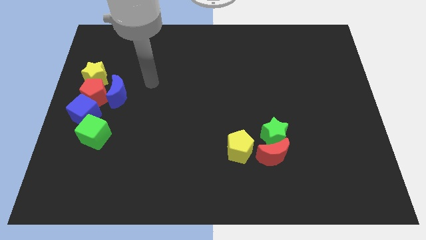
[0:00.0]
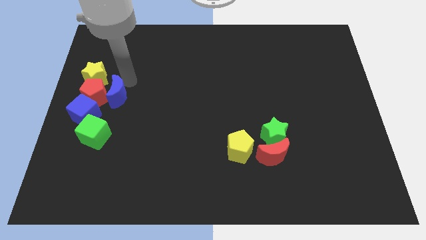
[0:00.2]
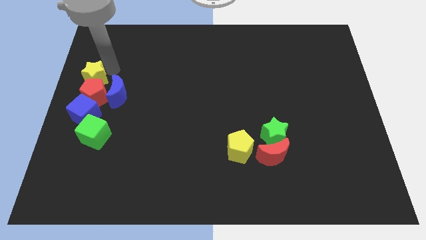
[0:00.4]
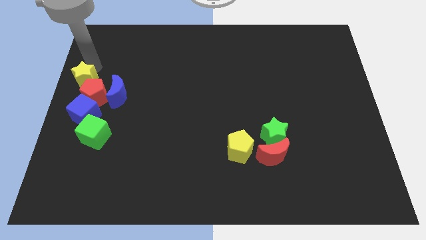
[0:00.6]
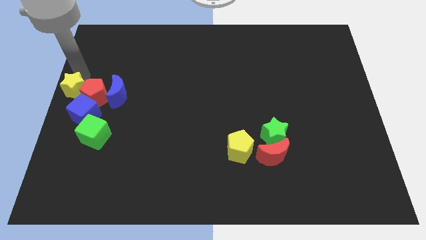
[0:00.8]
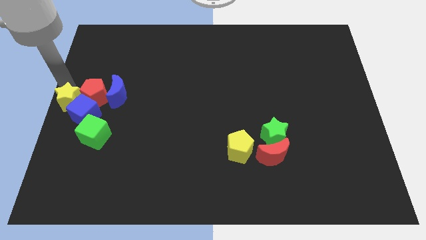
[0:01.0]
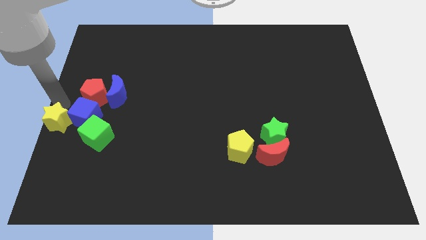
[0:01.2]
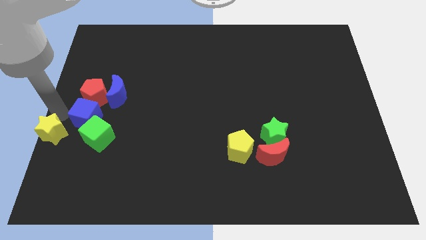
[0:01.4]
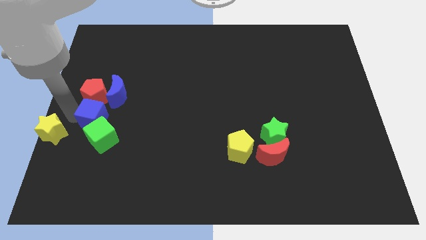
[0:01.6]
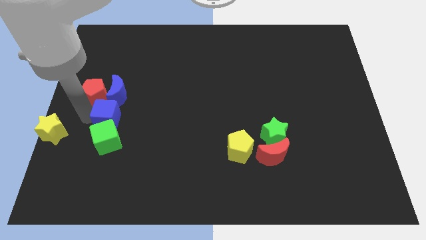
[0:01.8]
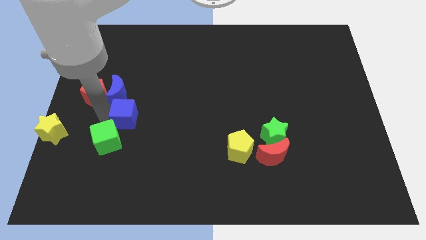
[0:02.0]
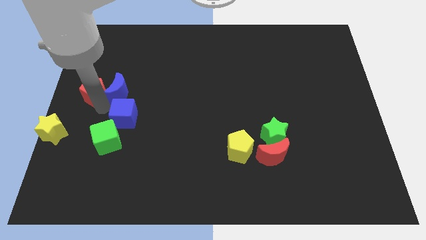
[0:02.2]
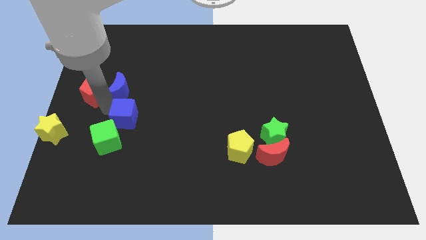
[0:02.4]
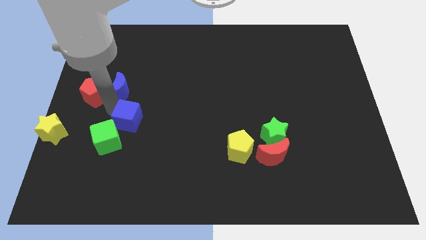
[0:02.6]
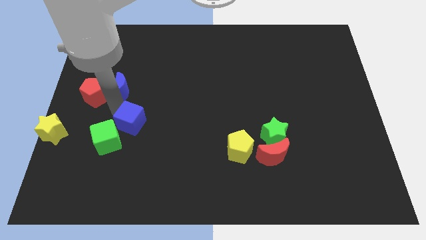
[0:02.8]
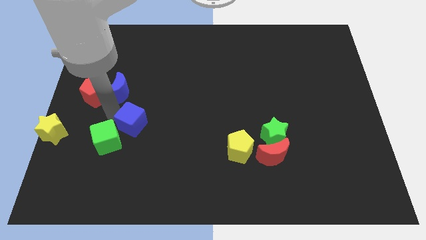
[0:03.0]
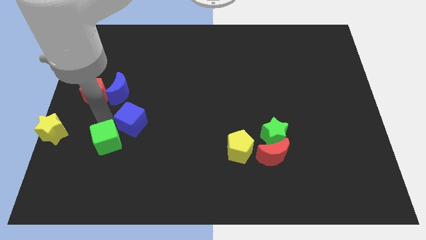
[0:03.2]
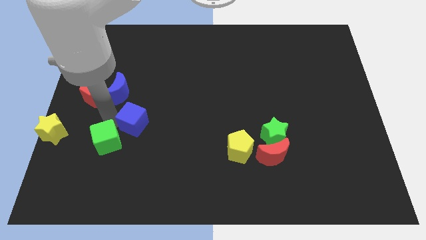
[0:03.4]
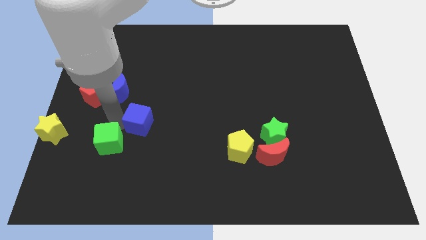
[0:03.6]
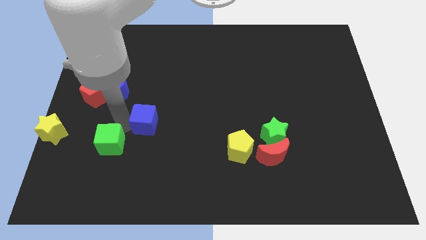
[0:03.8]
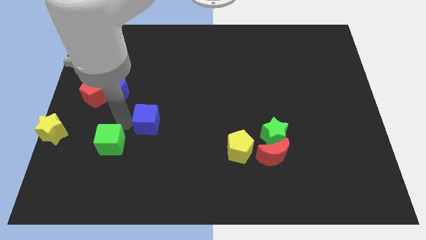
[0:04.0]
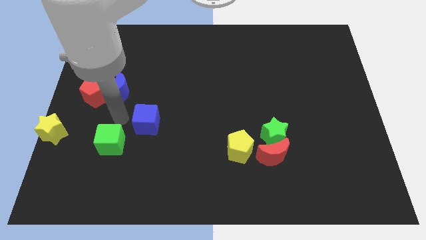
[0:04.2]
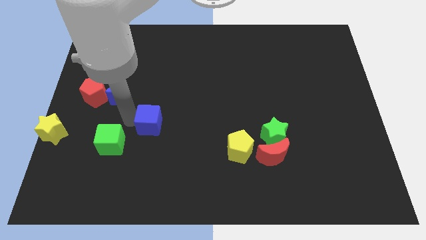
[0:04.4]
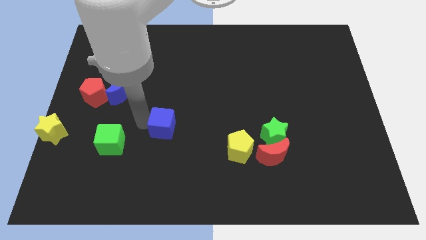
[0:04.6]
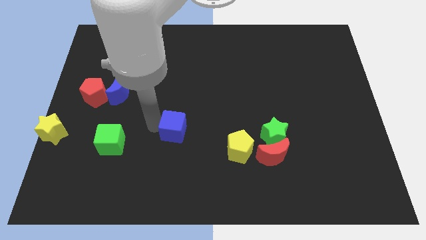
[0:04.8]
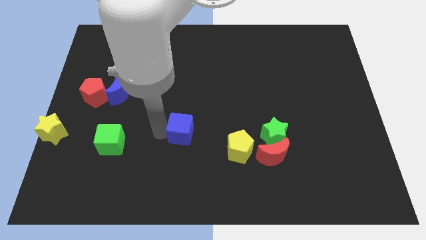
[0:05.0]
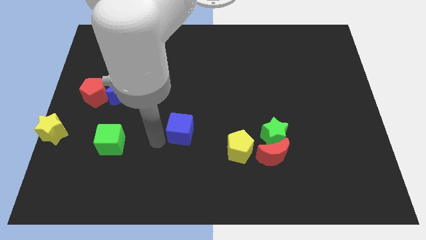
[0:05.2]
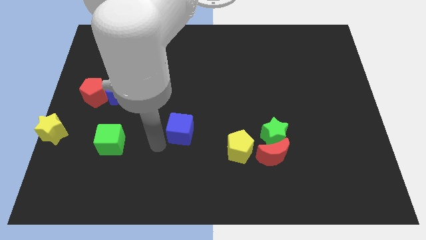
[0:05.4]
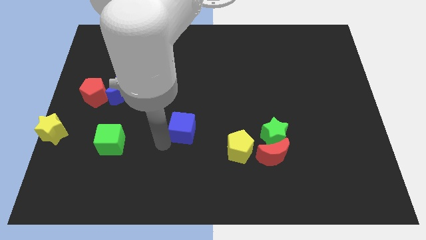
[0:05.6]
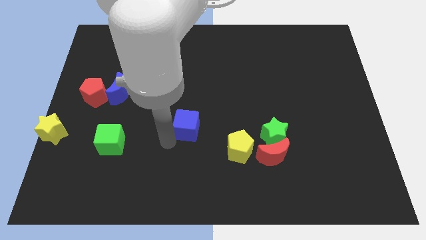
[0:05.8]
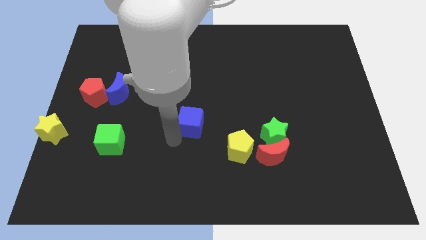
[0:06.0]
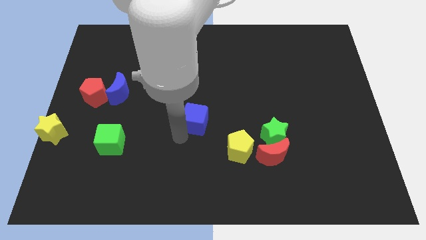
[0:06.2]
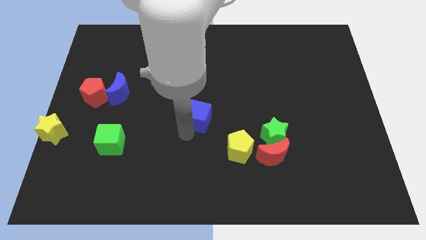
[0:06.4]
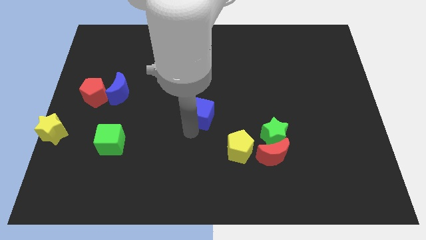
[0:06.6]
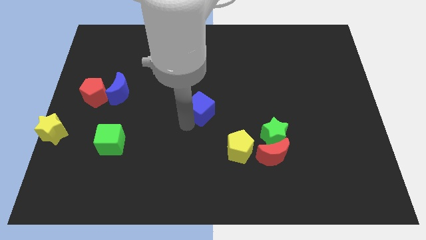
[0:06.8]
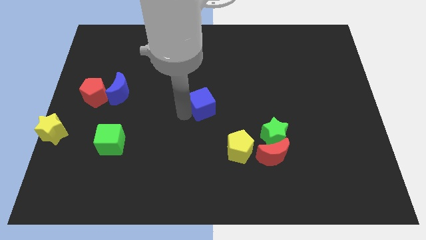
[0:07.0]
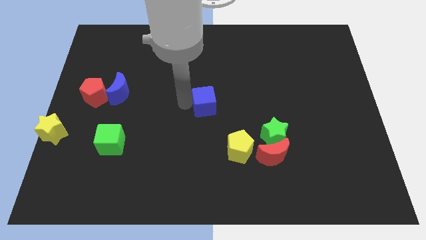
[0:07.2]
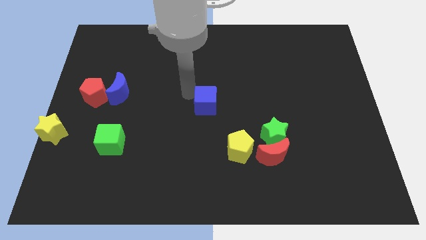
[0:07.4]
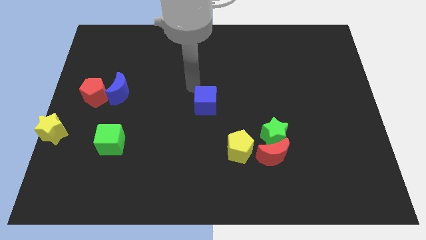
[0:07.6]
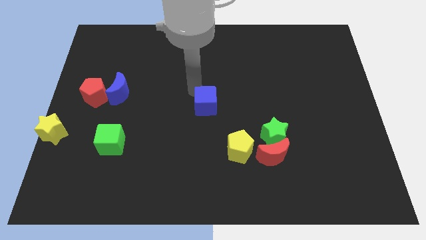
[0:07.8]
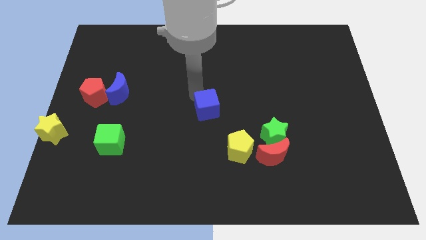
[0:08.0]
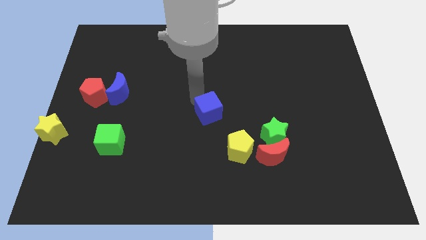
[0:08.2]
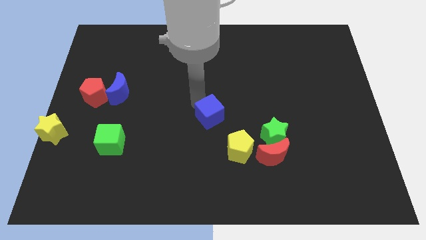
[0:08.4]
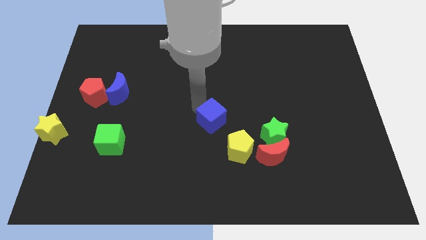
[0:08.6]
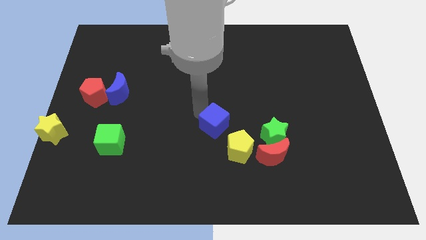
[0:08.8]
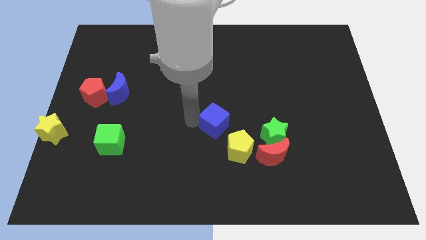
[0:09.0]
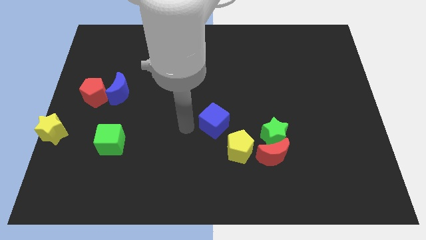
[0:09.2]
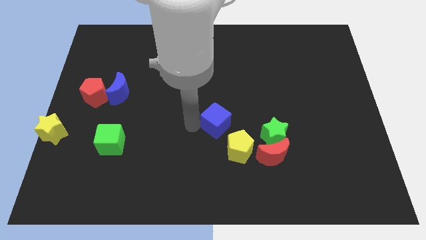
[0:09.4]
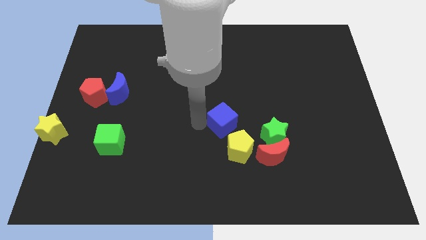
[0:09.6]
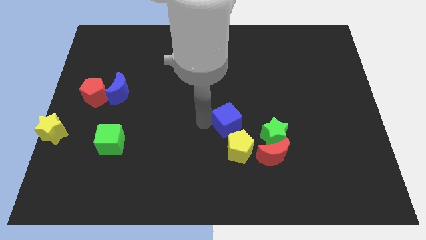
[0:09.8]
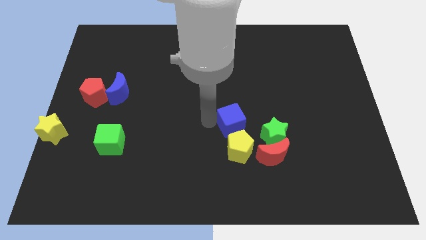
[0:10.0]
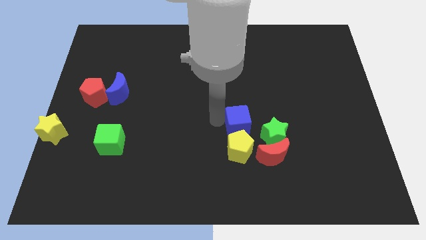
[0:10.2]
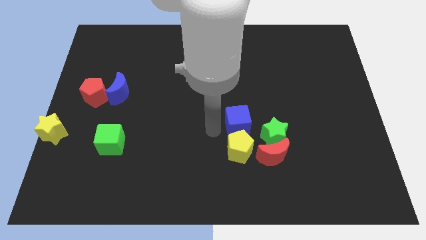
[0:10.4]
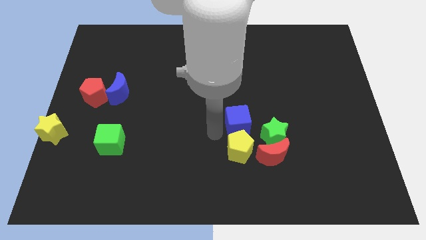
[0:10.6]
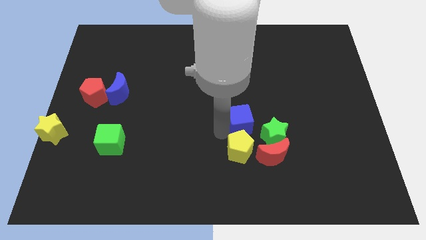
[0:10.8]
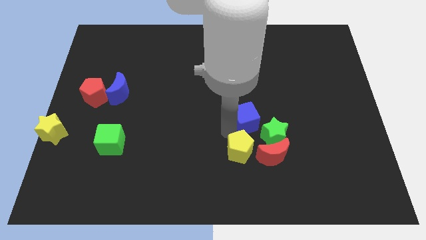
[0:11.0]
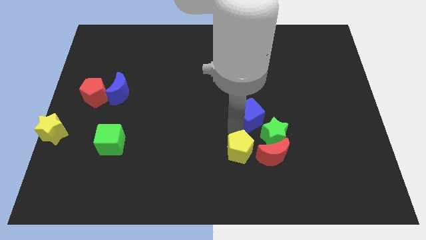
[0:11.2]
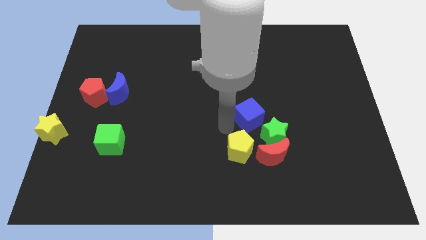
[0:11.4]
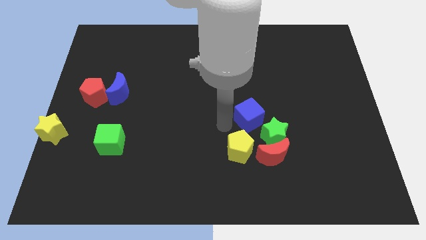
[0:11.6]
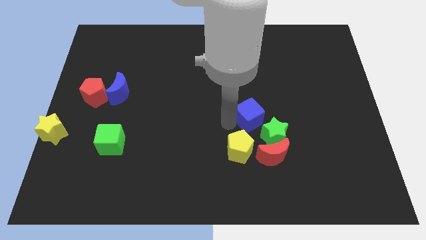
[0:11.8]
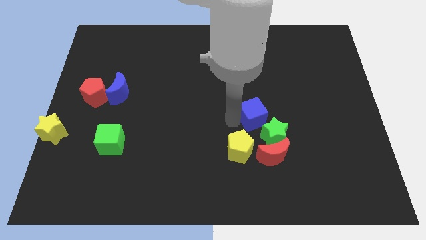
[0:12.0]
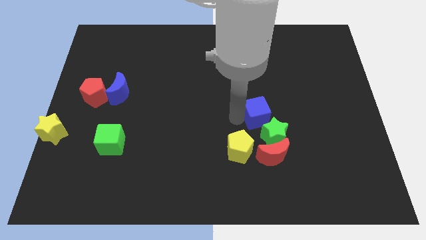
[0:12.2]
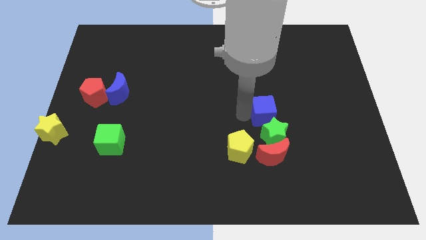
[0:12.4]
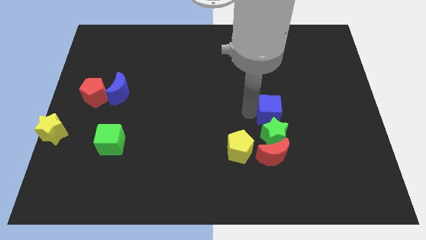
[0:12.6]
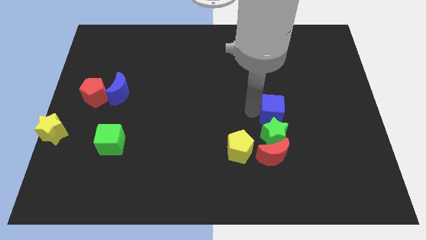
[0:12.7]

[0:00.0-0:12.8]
put the blue cube to the top right side of the green star

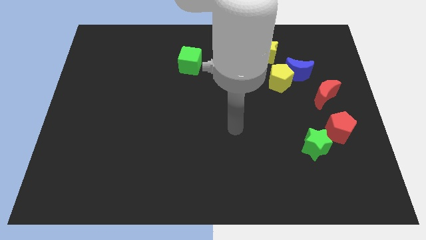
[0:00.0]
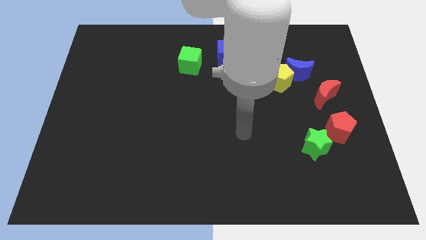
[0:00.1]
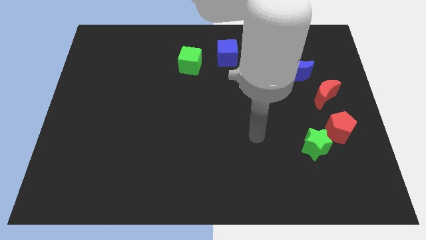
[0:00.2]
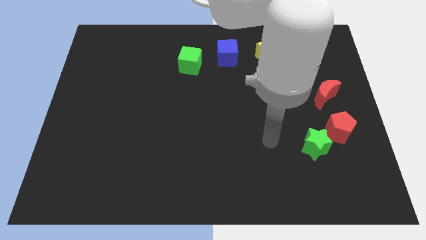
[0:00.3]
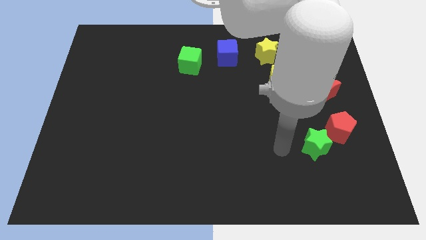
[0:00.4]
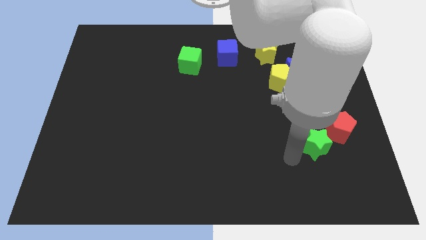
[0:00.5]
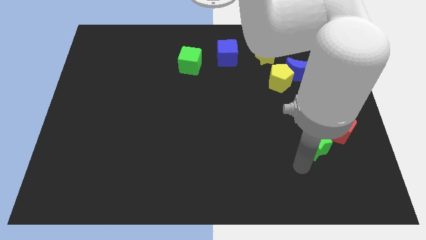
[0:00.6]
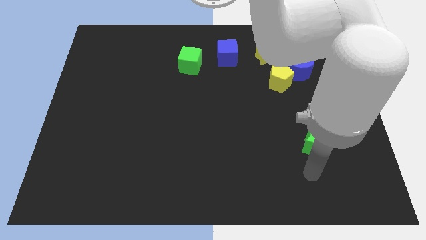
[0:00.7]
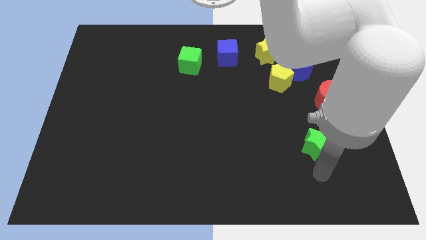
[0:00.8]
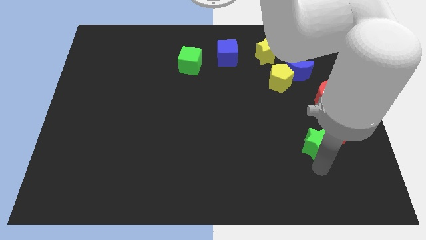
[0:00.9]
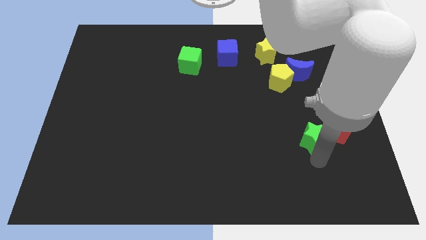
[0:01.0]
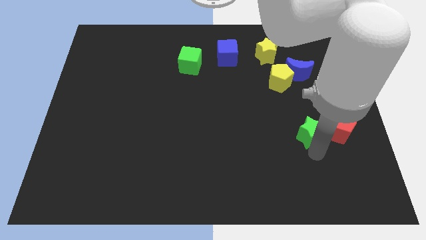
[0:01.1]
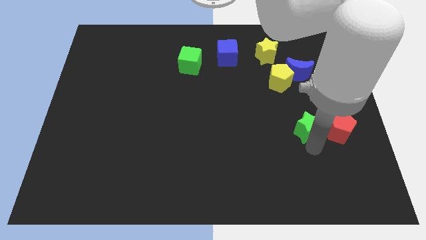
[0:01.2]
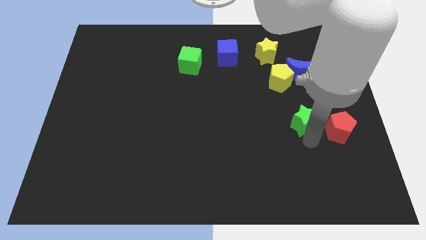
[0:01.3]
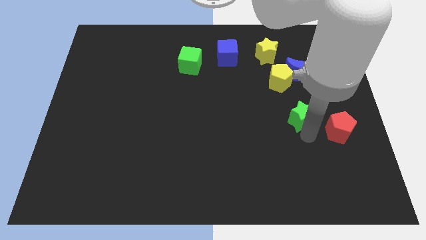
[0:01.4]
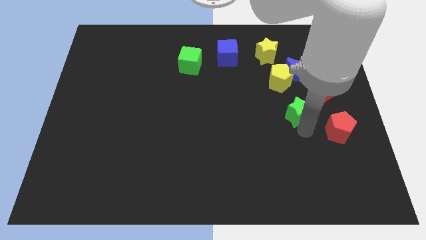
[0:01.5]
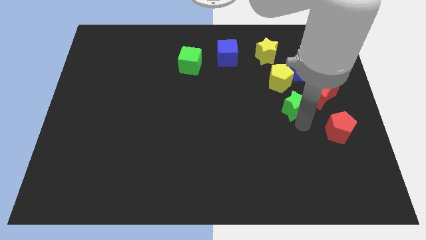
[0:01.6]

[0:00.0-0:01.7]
move the green star to the left of the red moon
